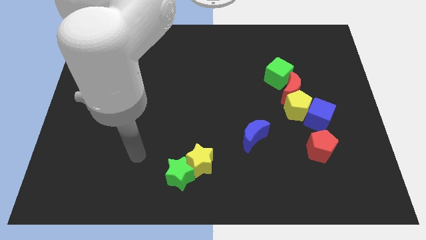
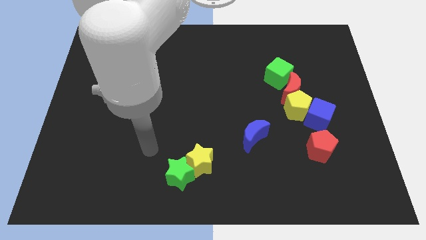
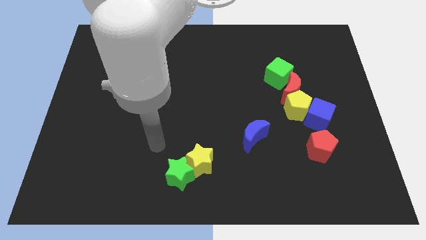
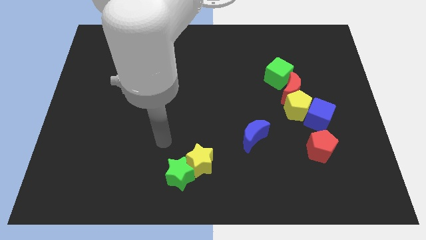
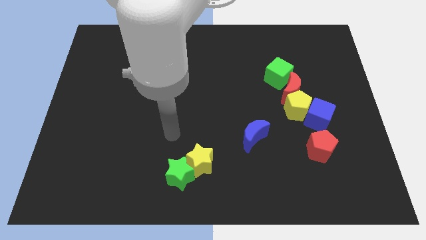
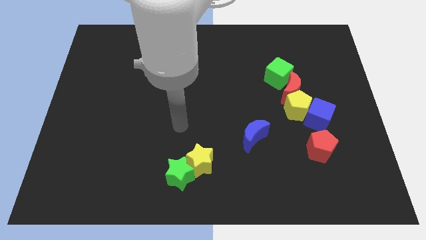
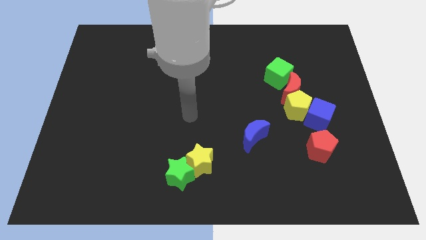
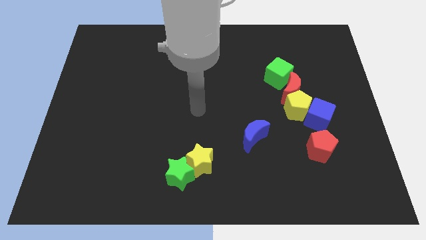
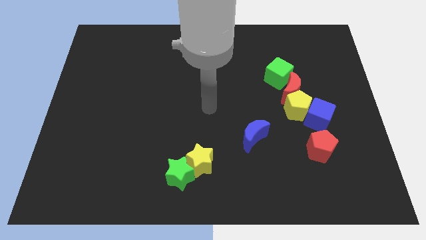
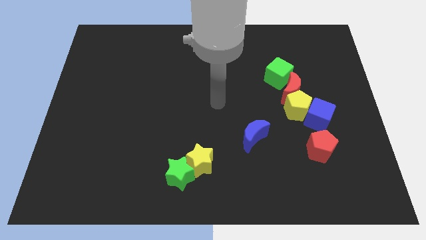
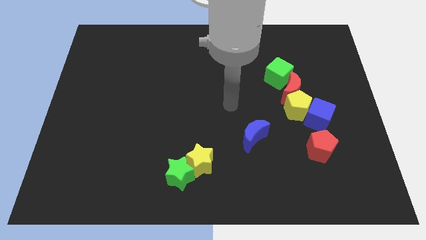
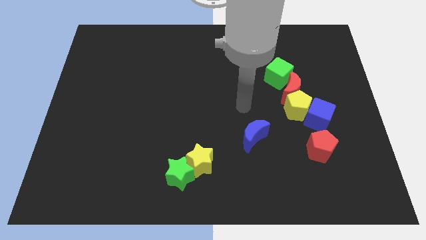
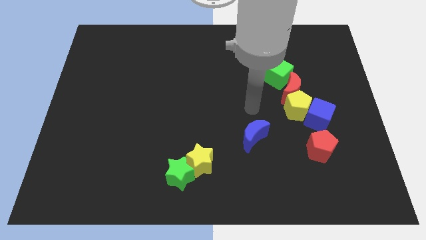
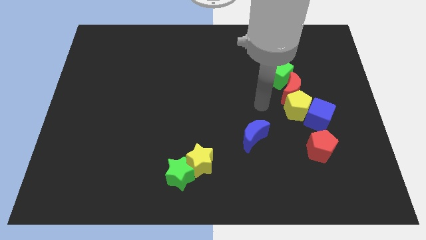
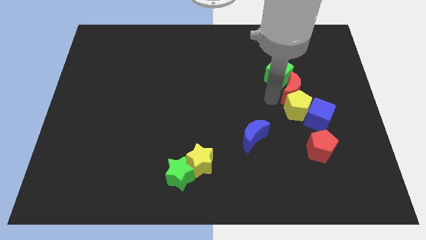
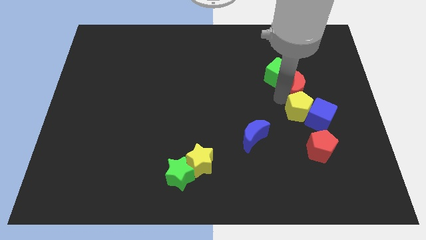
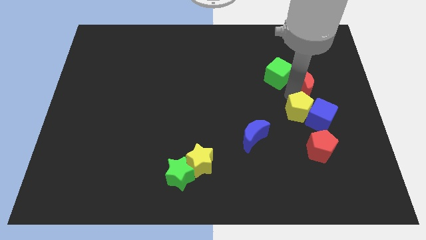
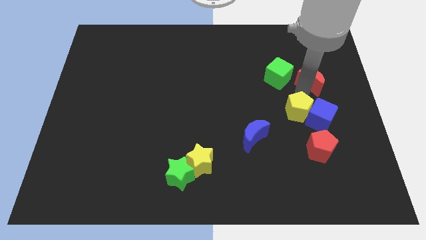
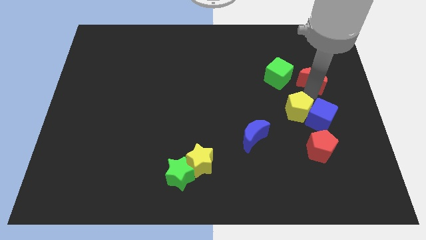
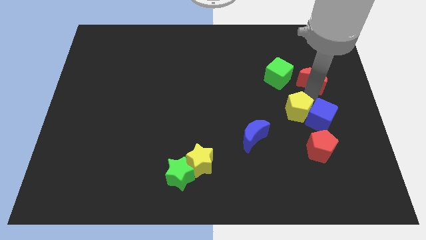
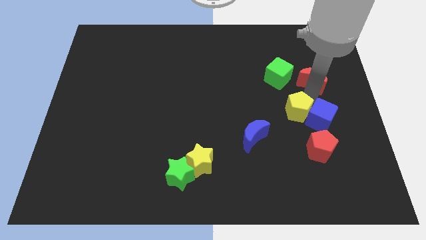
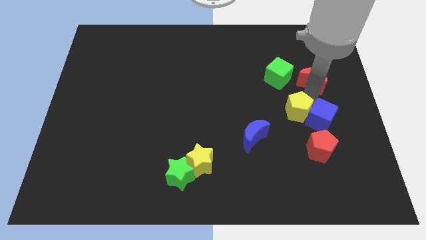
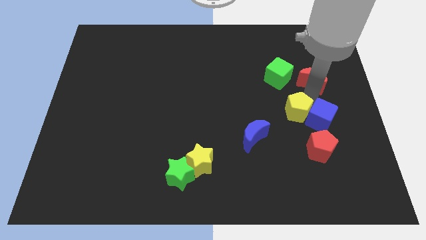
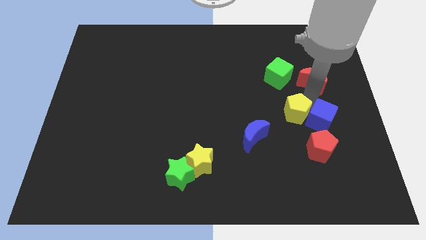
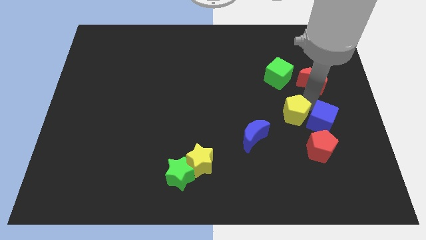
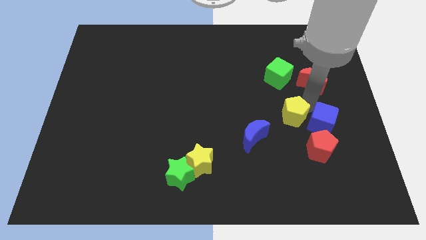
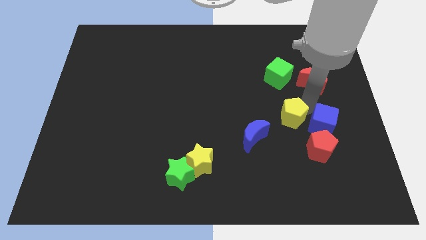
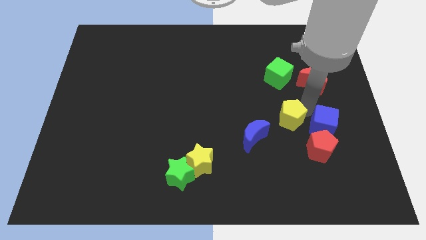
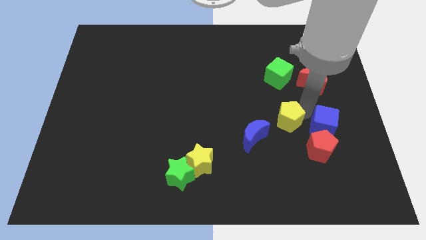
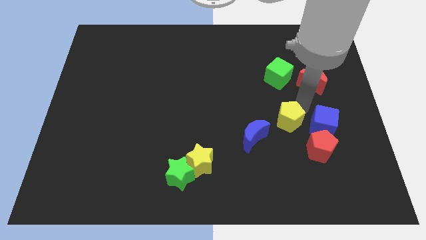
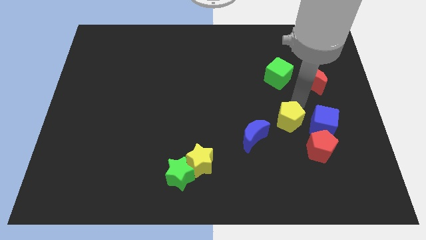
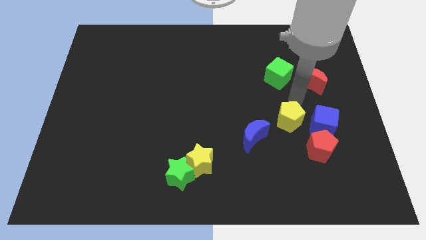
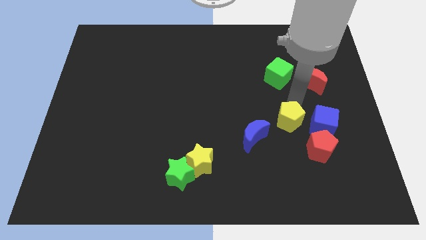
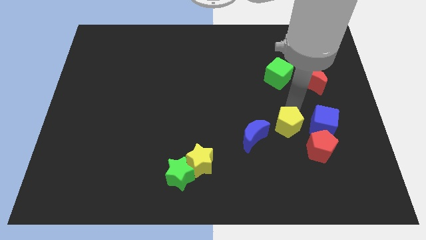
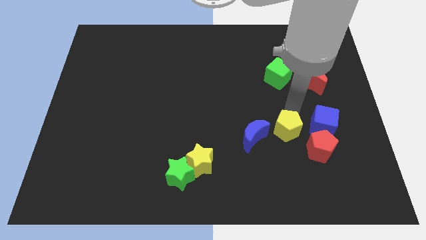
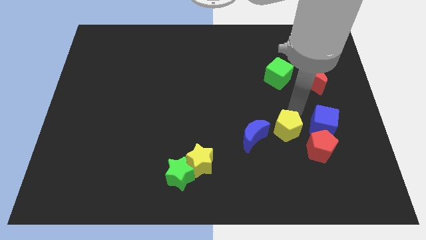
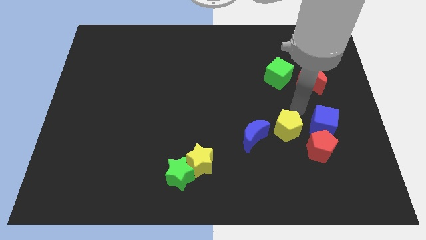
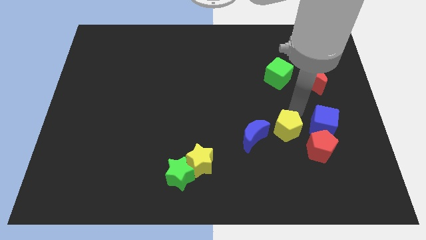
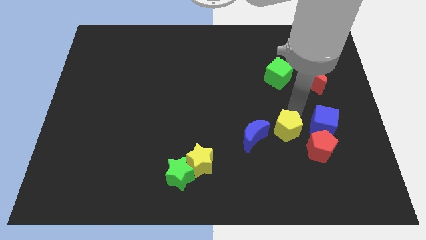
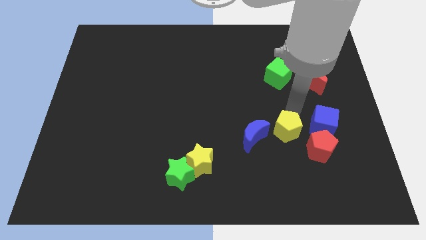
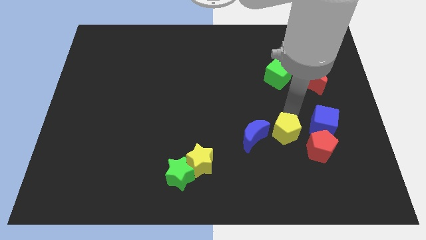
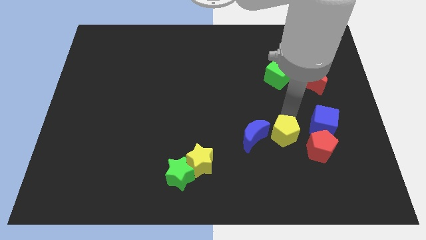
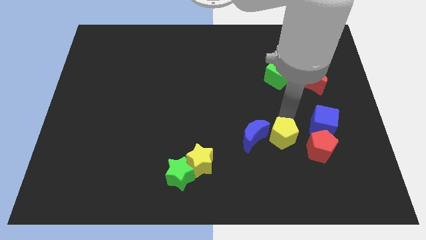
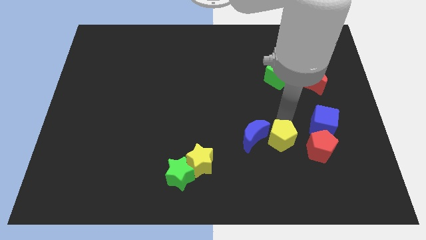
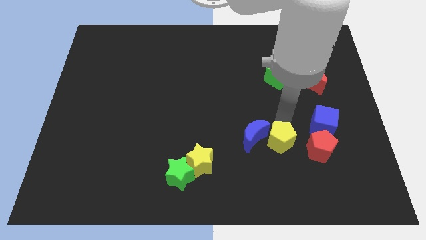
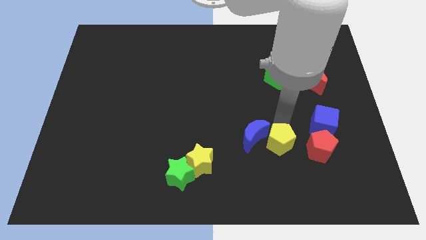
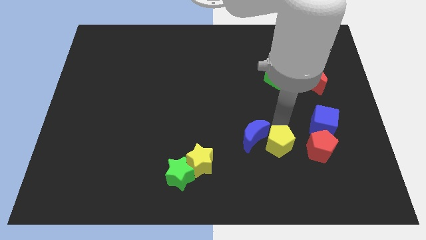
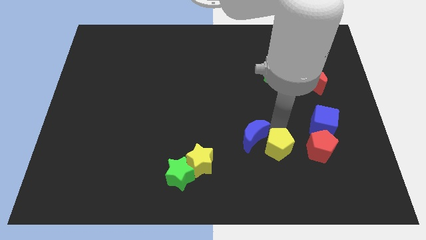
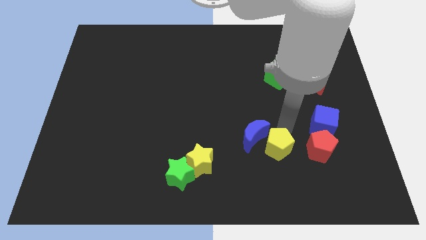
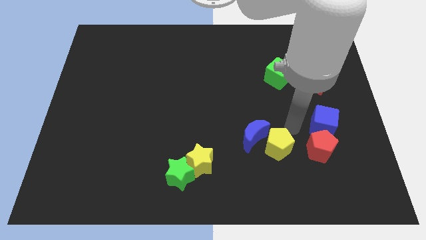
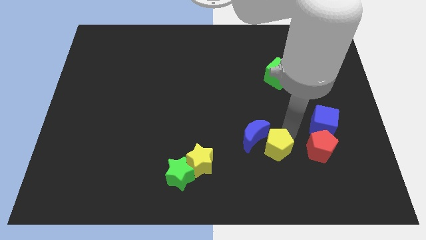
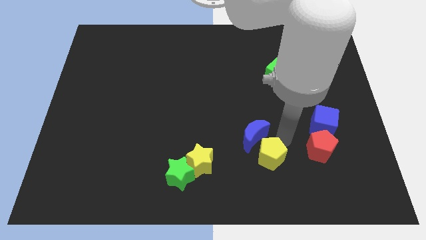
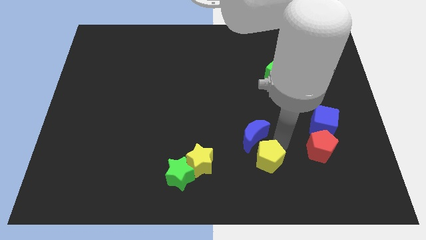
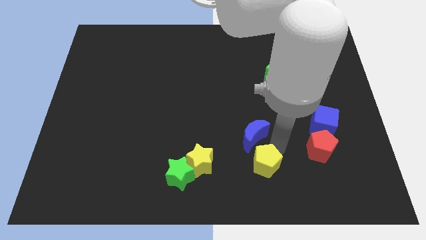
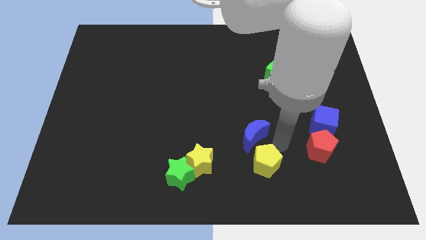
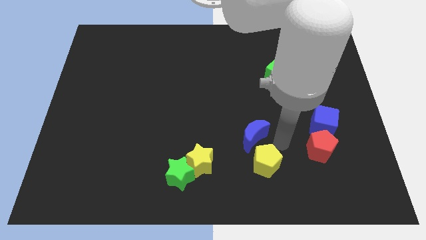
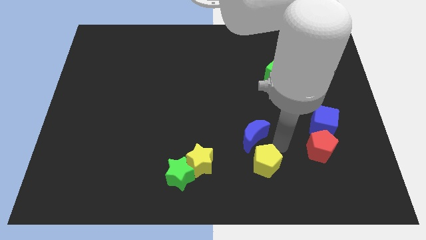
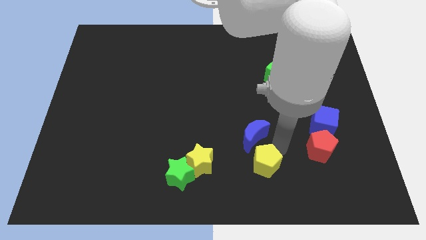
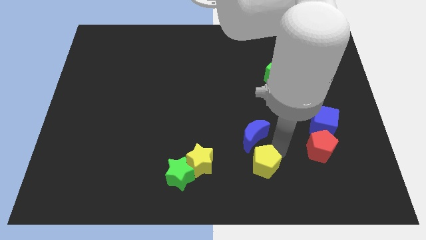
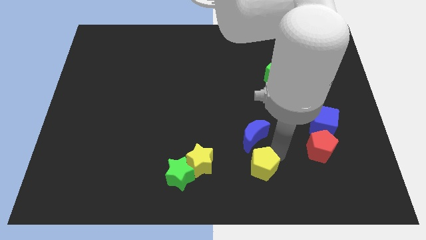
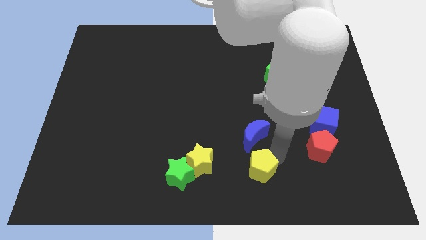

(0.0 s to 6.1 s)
put the yellow pentagon to the bottom

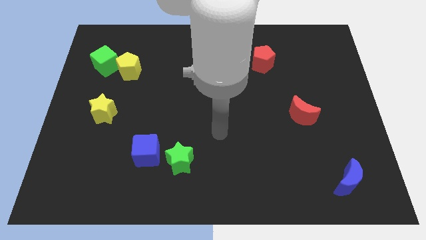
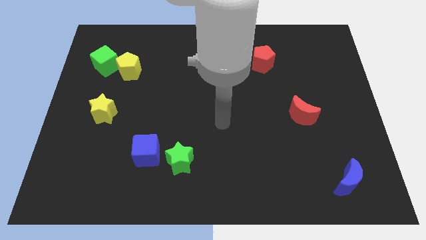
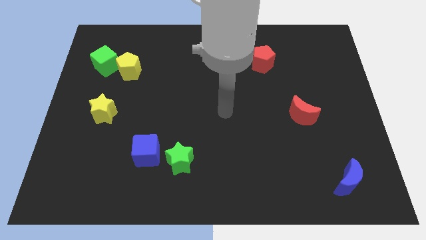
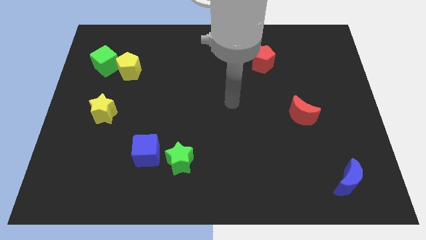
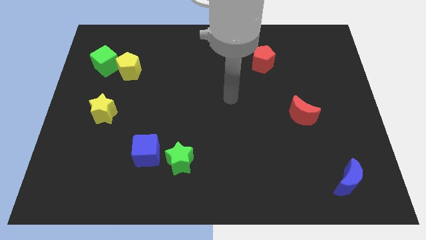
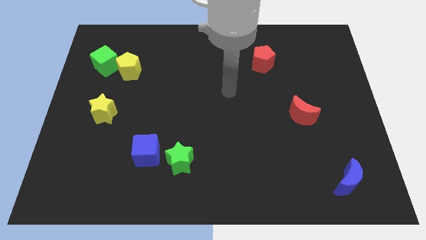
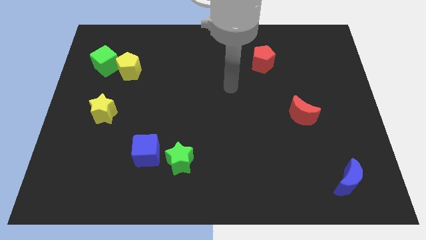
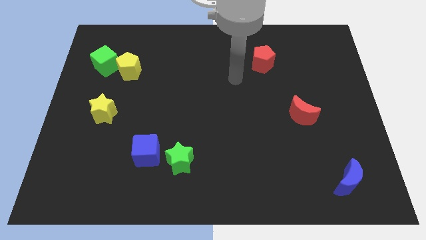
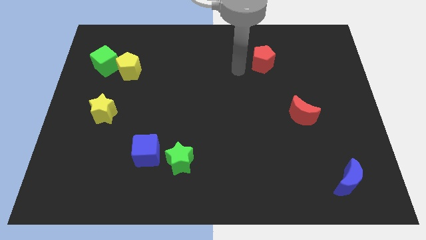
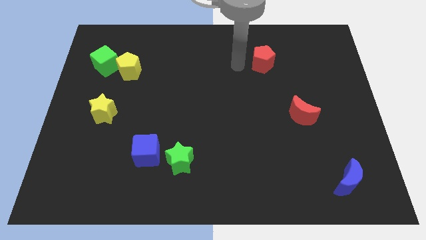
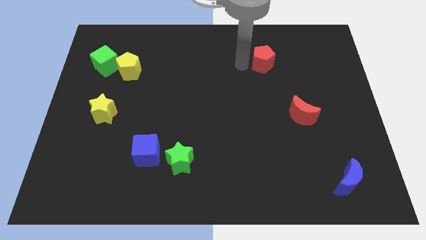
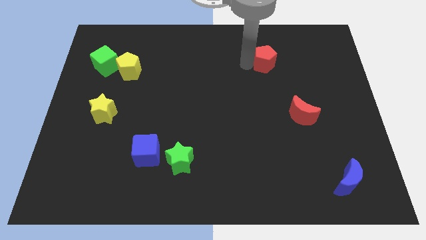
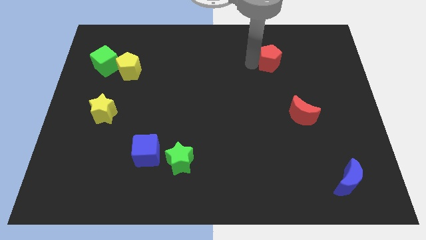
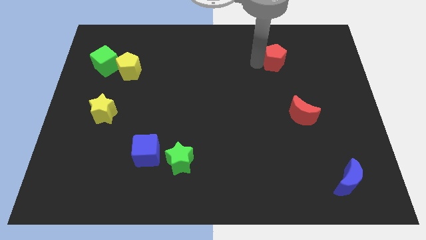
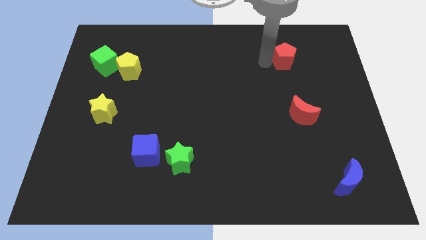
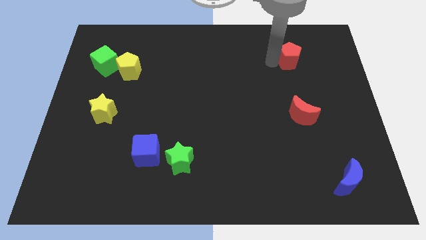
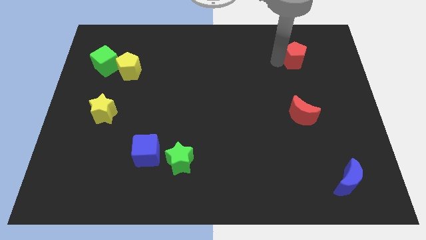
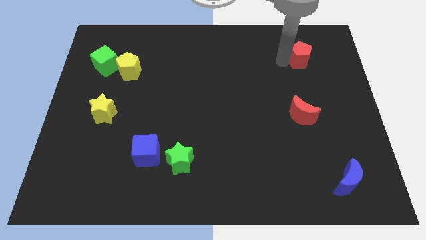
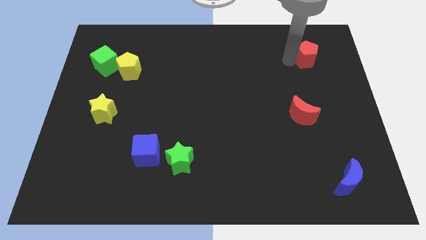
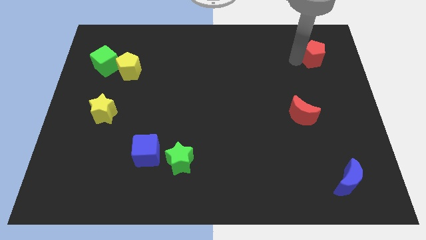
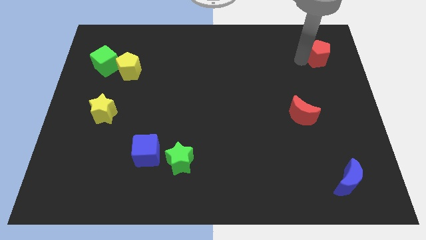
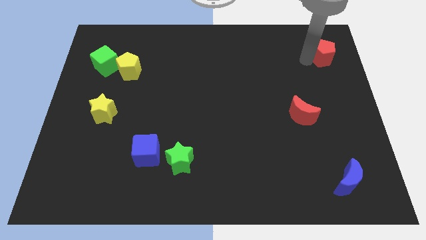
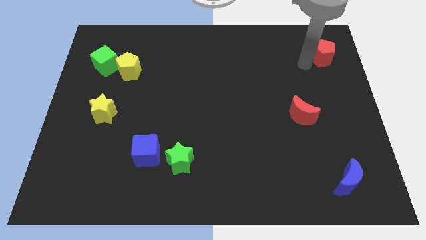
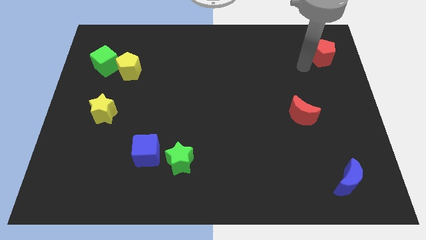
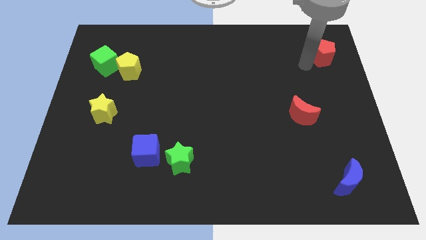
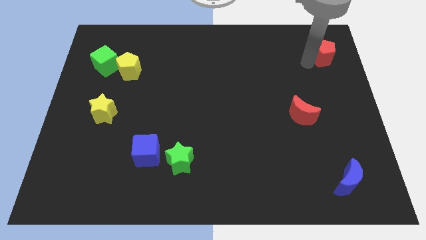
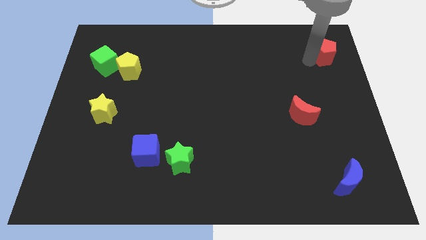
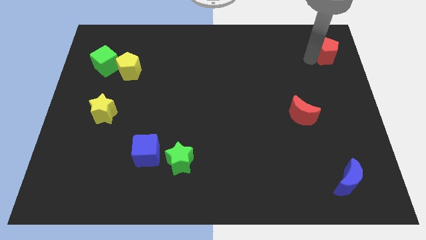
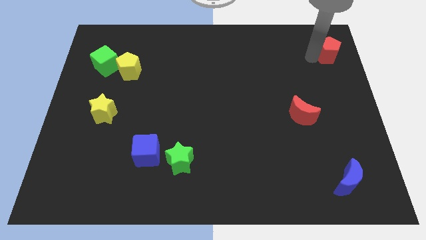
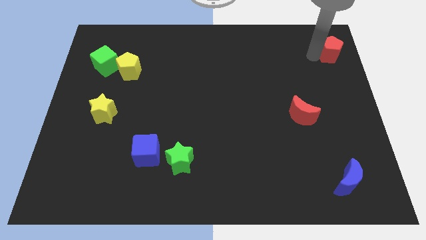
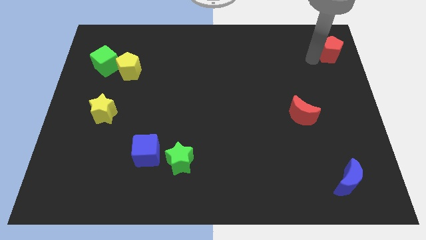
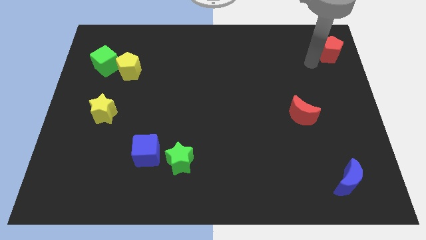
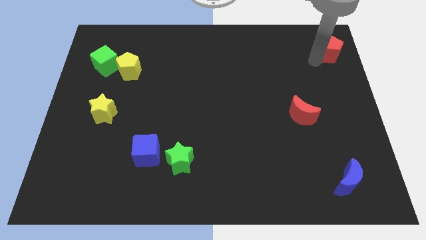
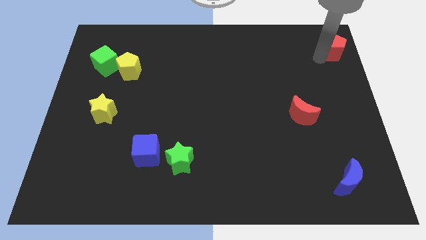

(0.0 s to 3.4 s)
slide the red pentagon to the top right of the board
